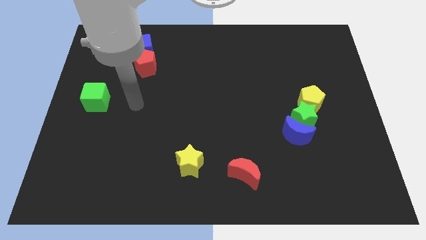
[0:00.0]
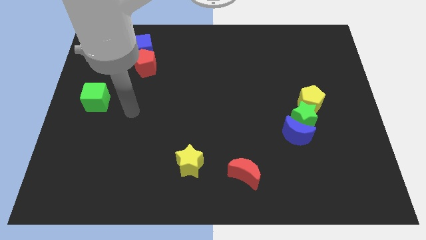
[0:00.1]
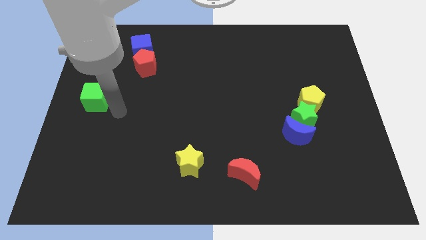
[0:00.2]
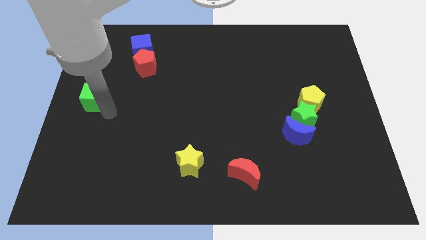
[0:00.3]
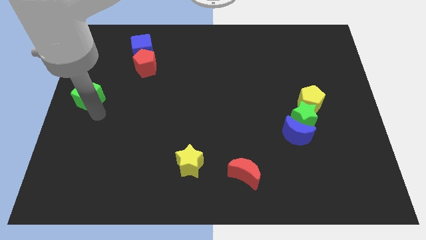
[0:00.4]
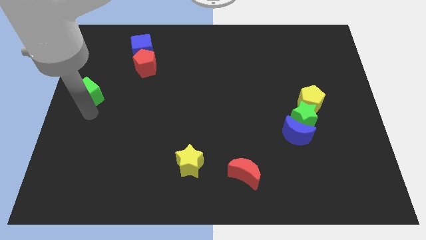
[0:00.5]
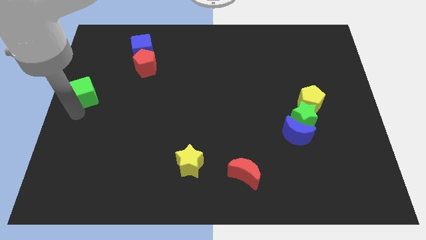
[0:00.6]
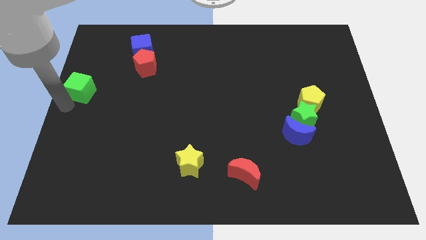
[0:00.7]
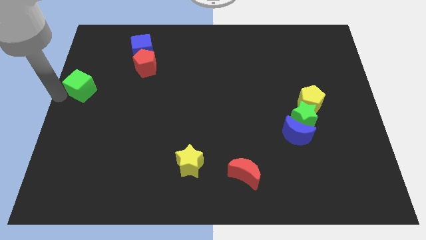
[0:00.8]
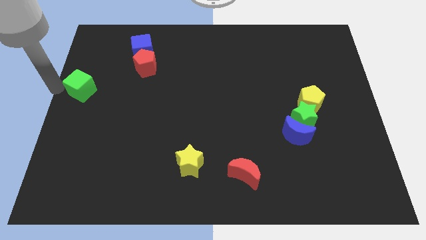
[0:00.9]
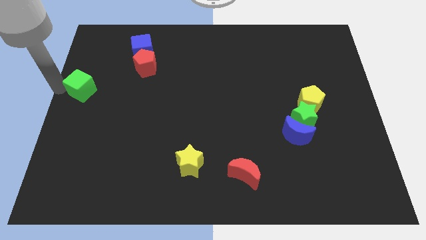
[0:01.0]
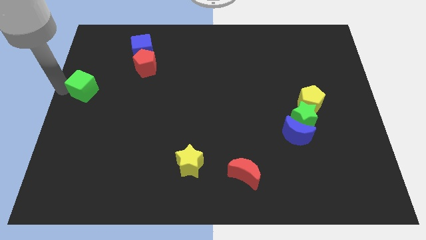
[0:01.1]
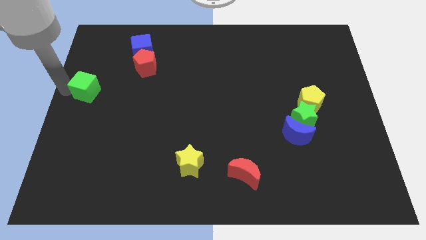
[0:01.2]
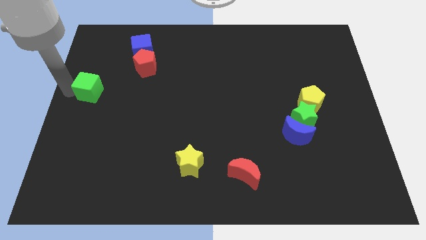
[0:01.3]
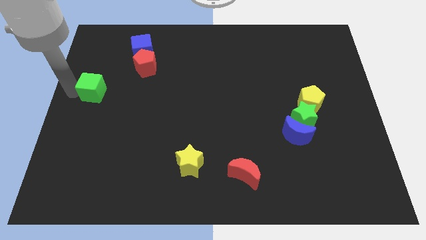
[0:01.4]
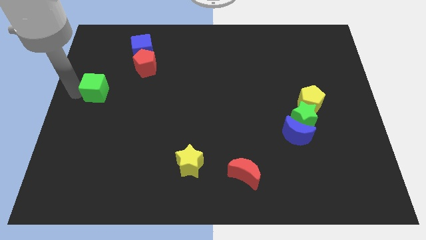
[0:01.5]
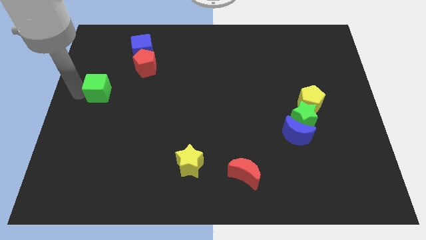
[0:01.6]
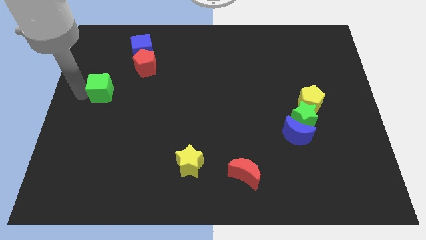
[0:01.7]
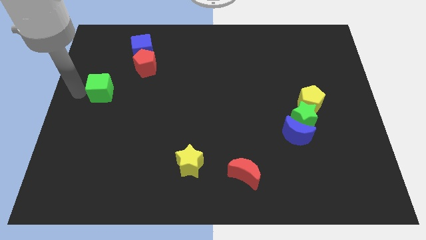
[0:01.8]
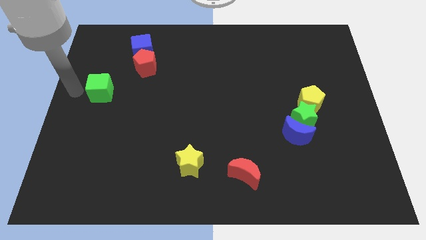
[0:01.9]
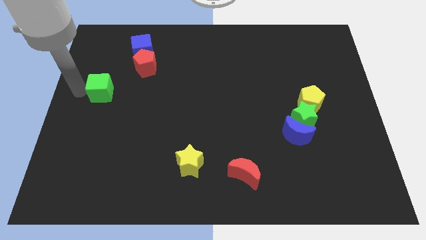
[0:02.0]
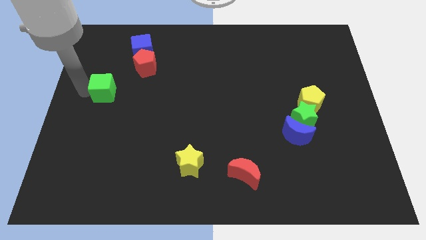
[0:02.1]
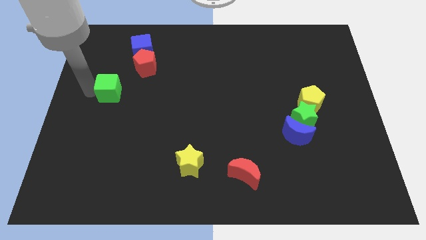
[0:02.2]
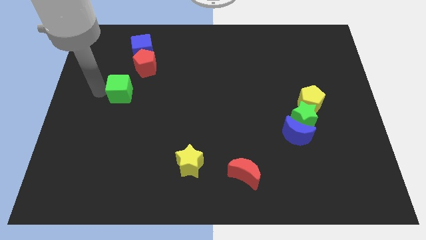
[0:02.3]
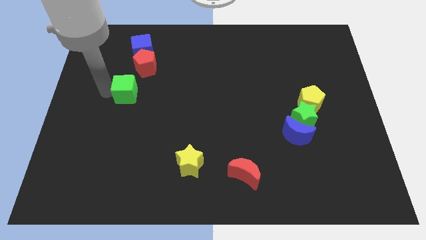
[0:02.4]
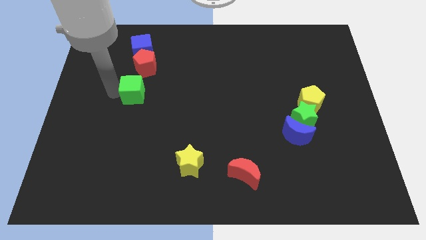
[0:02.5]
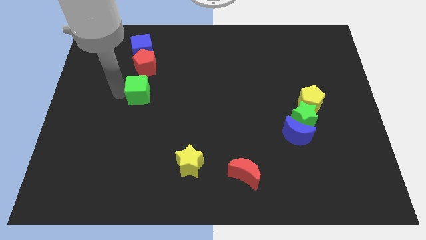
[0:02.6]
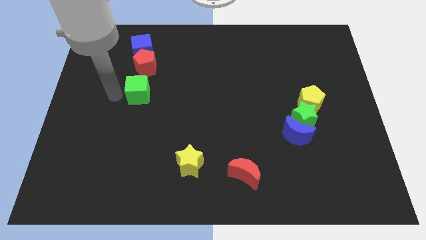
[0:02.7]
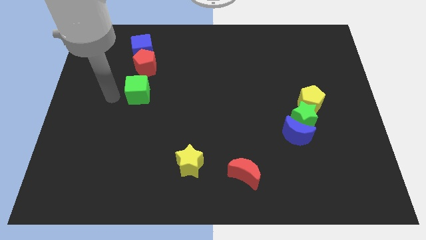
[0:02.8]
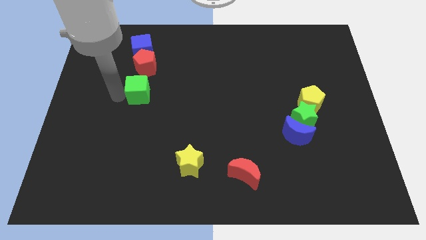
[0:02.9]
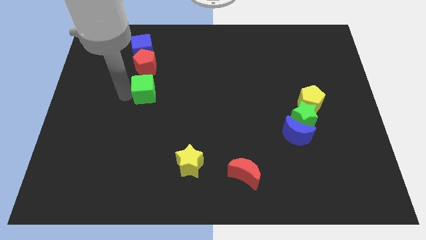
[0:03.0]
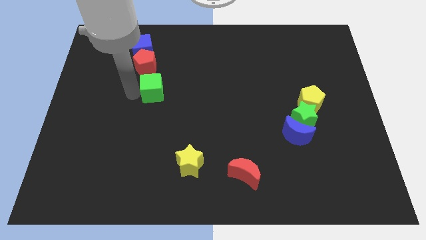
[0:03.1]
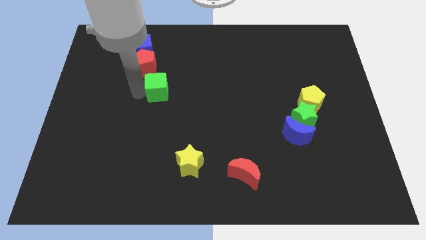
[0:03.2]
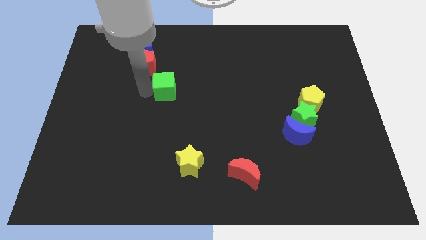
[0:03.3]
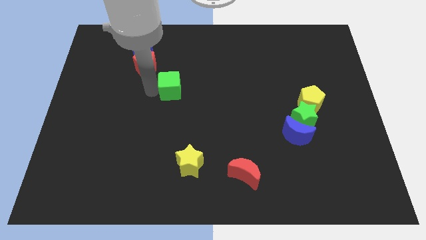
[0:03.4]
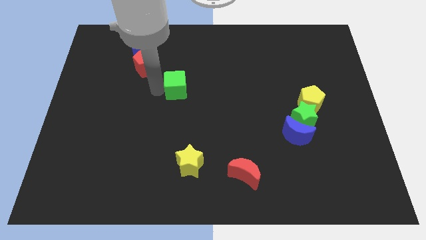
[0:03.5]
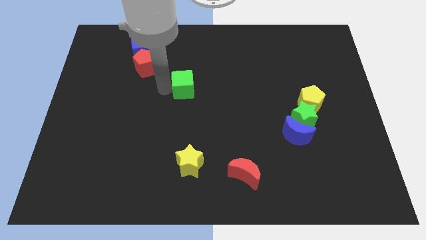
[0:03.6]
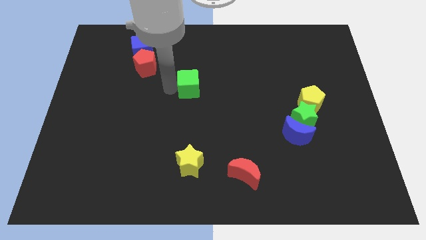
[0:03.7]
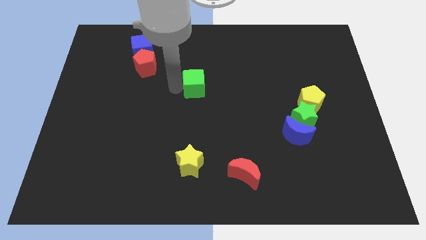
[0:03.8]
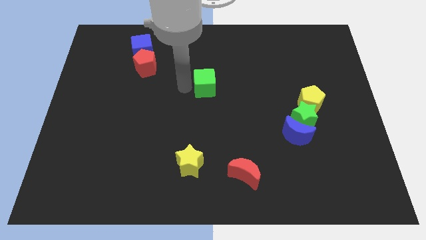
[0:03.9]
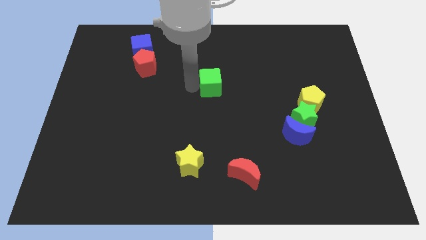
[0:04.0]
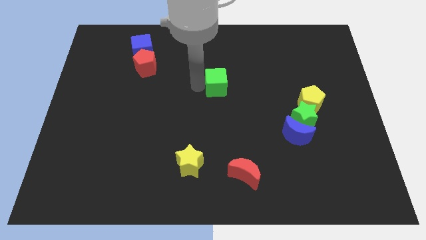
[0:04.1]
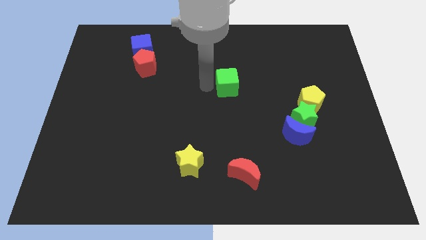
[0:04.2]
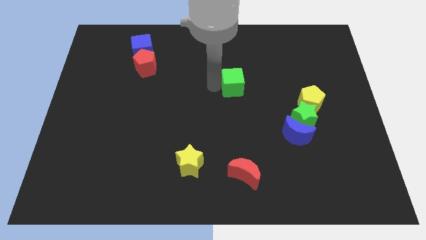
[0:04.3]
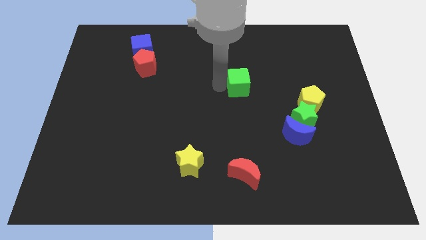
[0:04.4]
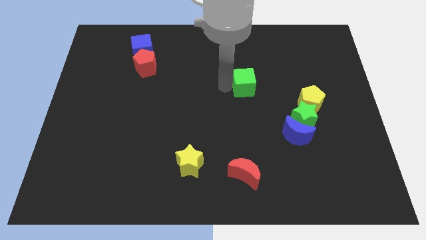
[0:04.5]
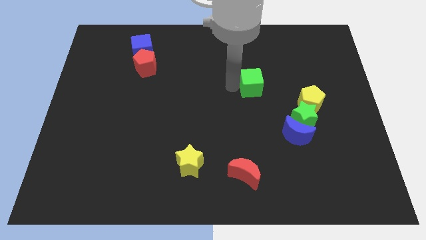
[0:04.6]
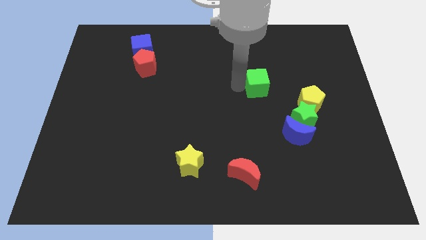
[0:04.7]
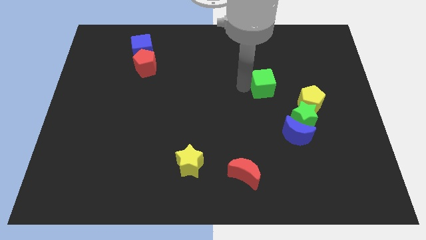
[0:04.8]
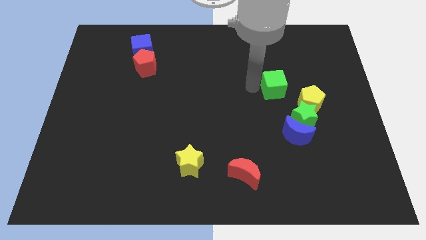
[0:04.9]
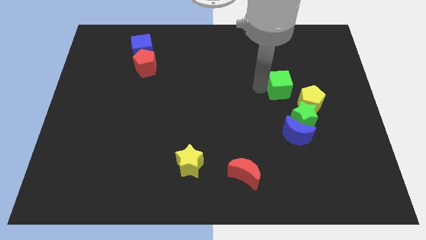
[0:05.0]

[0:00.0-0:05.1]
put the green cube to the top side of the green star

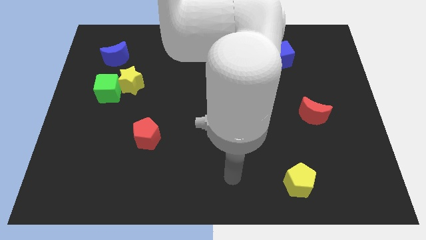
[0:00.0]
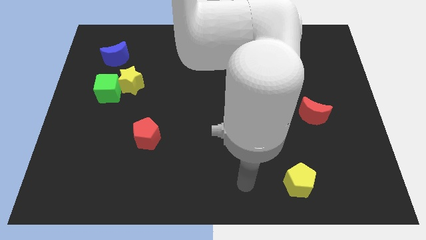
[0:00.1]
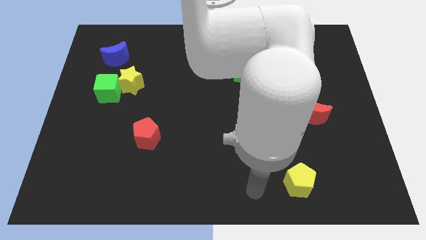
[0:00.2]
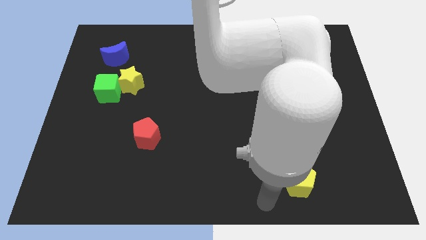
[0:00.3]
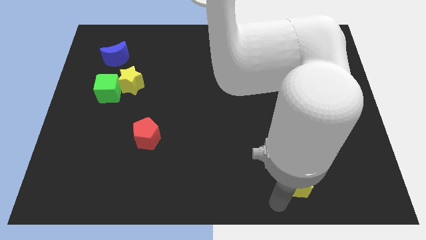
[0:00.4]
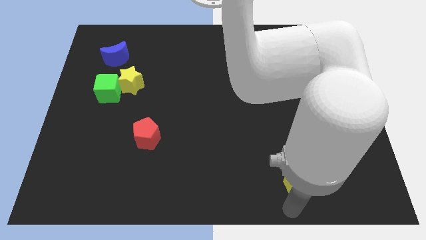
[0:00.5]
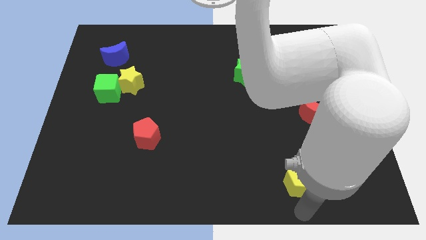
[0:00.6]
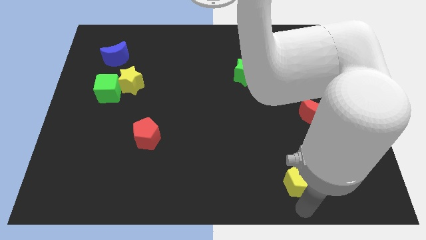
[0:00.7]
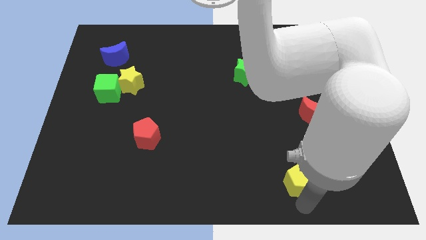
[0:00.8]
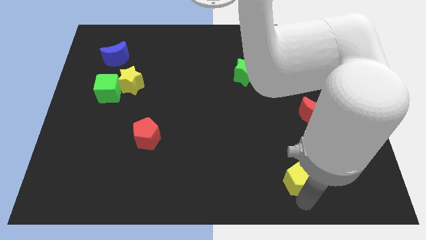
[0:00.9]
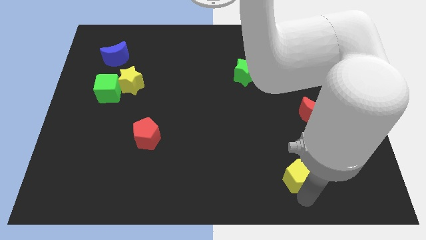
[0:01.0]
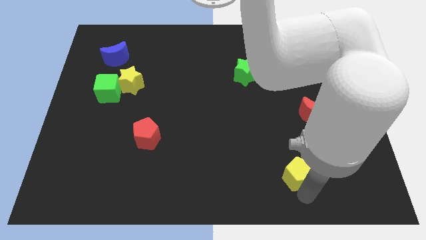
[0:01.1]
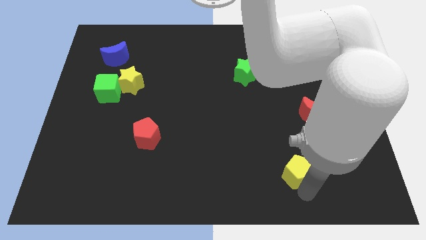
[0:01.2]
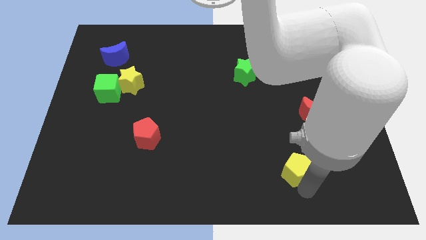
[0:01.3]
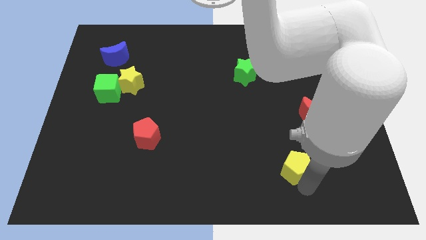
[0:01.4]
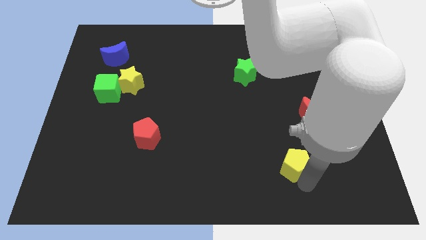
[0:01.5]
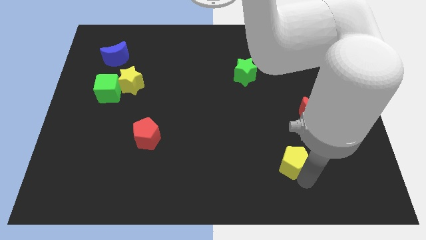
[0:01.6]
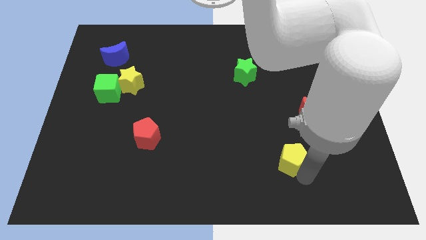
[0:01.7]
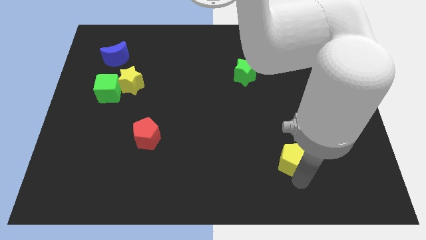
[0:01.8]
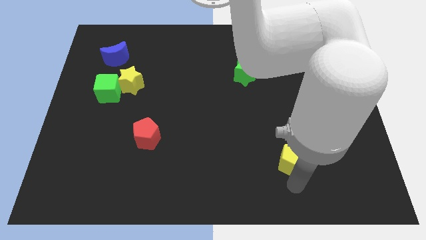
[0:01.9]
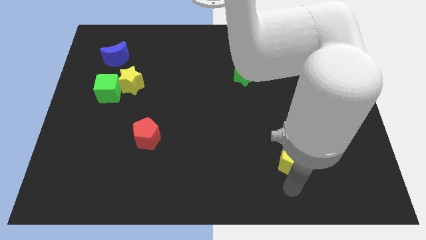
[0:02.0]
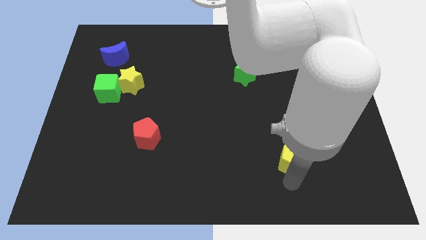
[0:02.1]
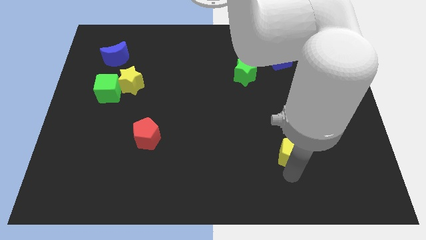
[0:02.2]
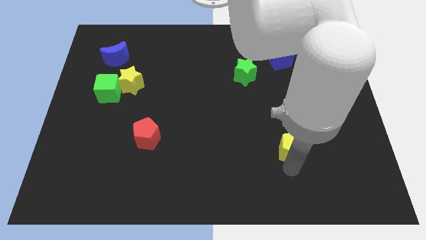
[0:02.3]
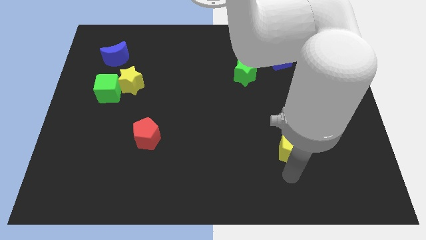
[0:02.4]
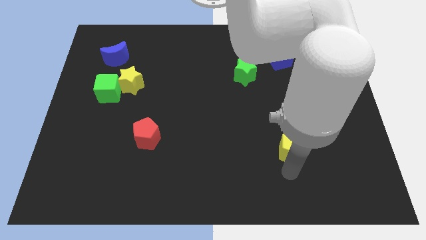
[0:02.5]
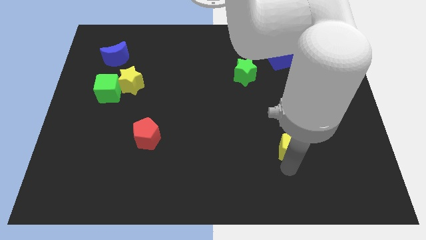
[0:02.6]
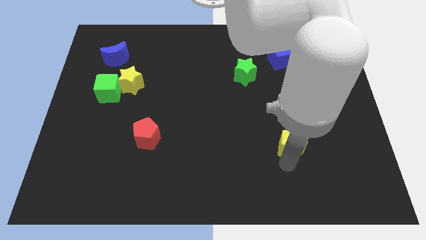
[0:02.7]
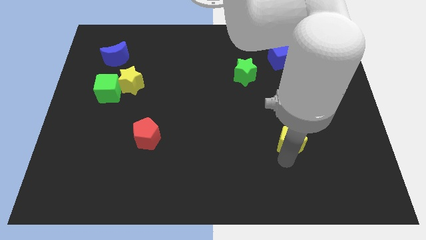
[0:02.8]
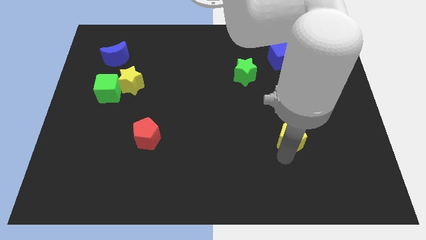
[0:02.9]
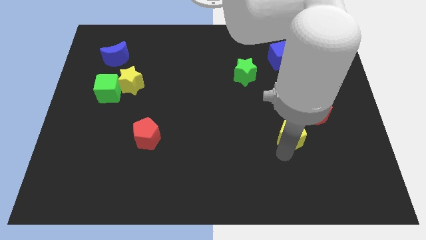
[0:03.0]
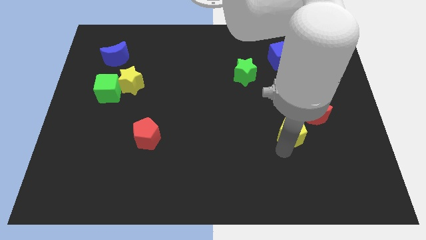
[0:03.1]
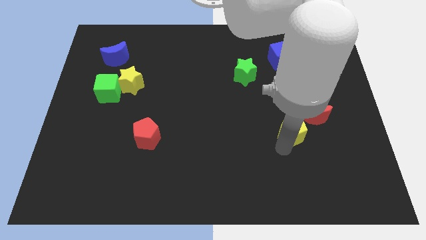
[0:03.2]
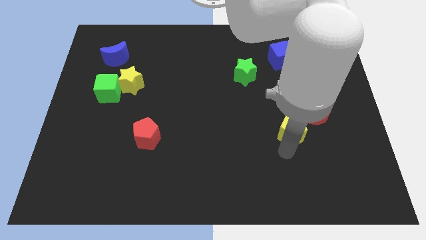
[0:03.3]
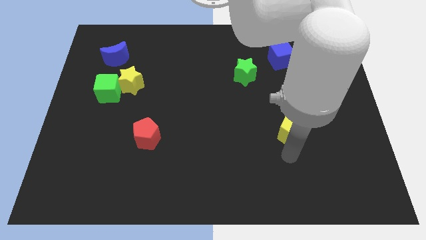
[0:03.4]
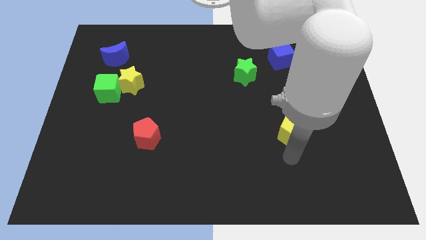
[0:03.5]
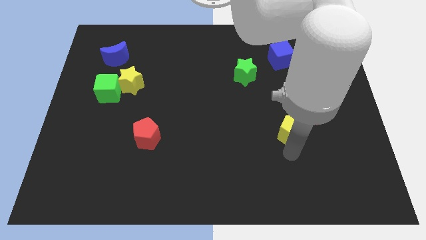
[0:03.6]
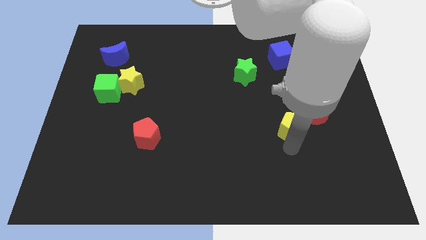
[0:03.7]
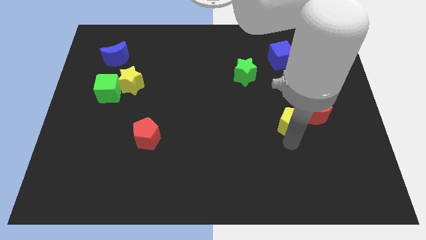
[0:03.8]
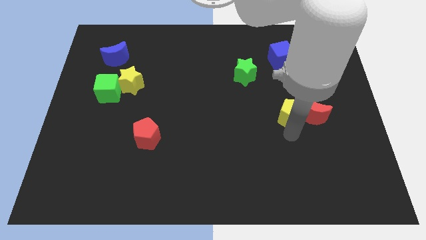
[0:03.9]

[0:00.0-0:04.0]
move the yellow pentagon to the top left of the red moon
